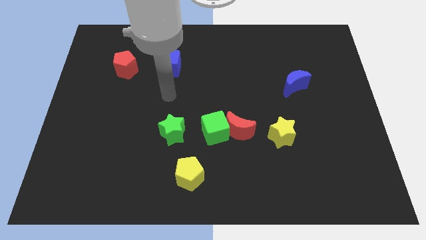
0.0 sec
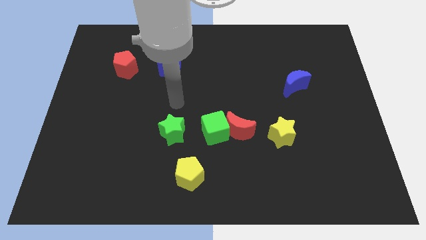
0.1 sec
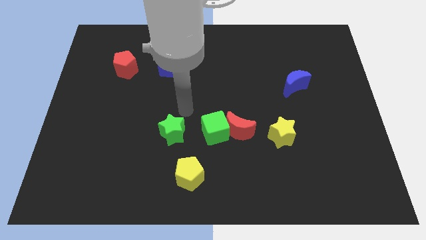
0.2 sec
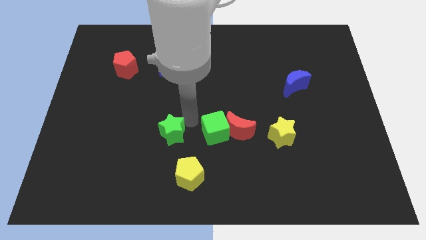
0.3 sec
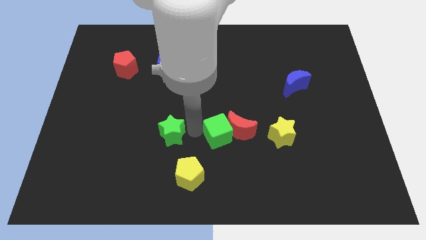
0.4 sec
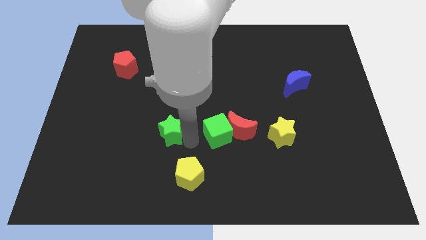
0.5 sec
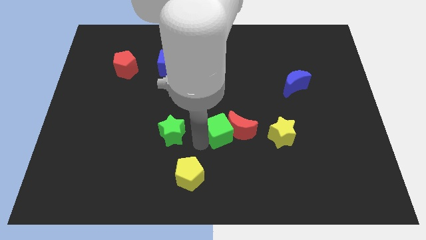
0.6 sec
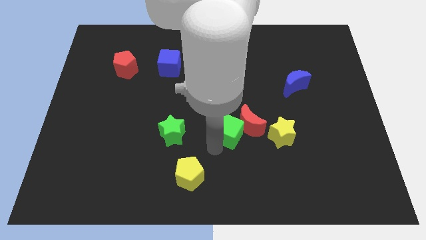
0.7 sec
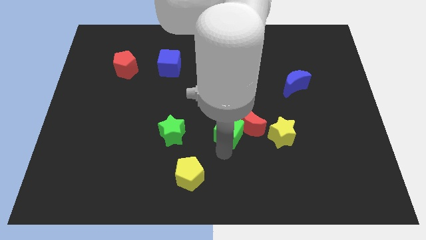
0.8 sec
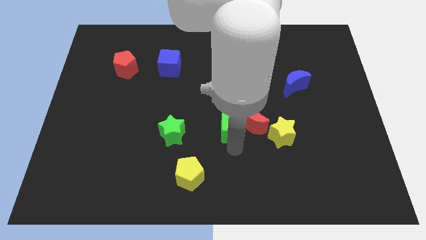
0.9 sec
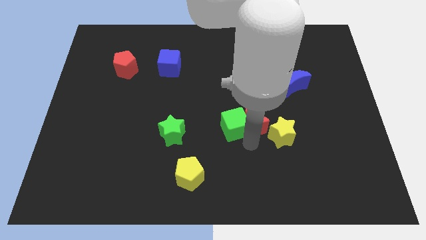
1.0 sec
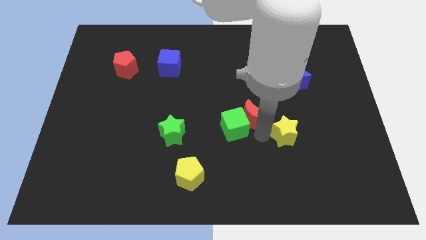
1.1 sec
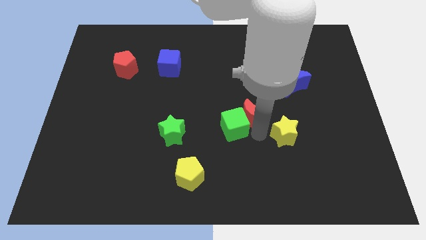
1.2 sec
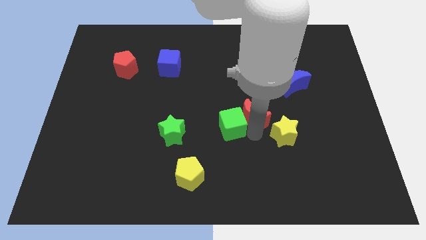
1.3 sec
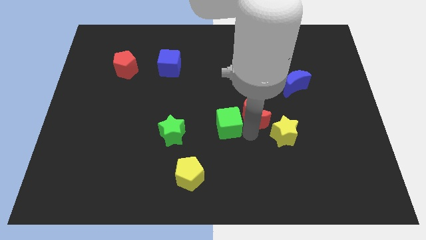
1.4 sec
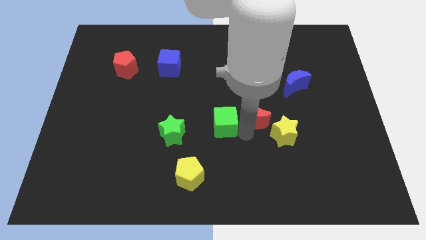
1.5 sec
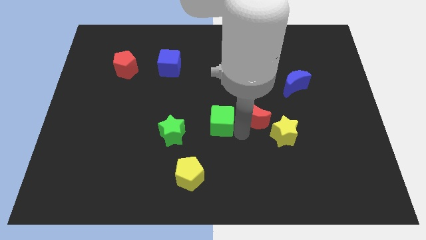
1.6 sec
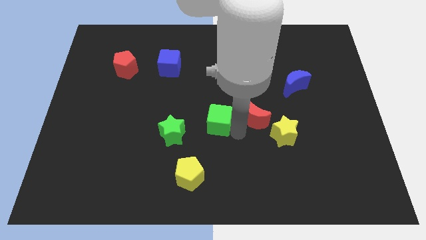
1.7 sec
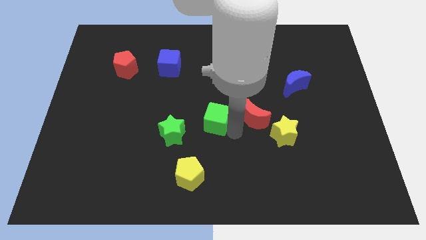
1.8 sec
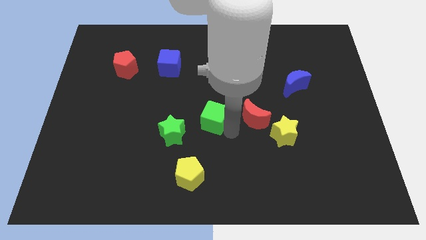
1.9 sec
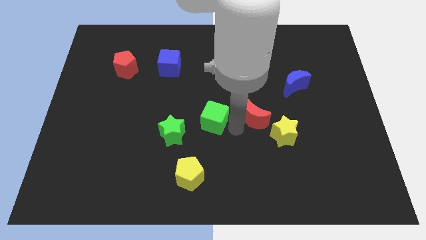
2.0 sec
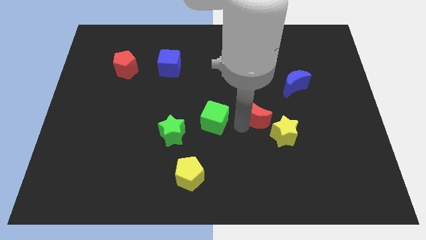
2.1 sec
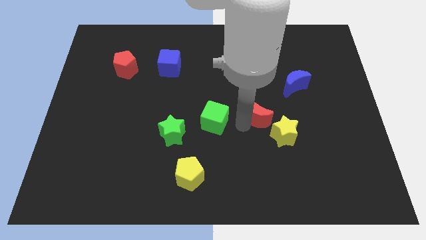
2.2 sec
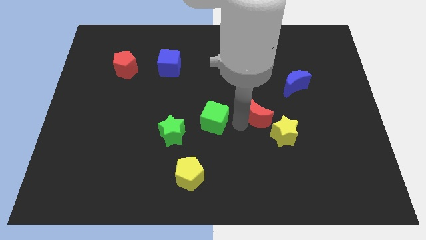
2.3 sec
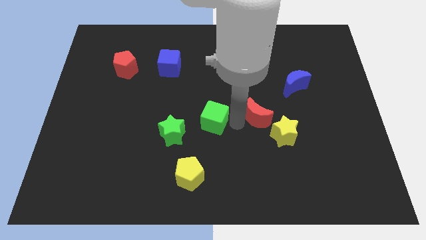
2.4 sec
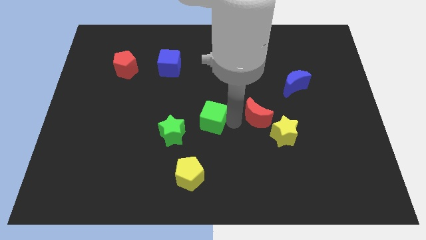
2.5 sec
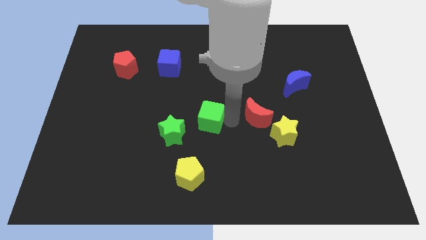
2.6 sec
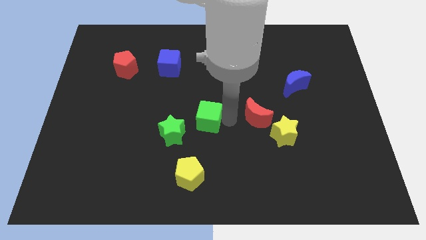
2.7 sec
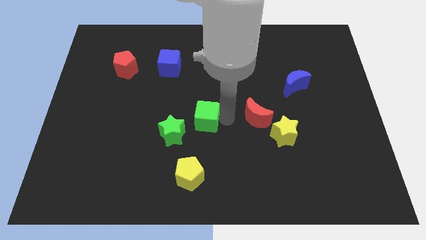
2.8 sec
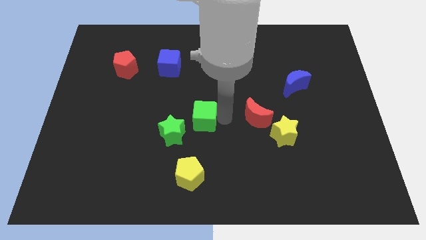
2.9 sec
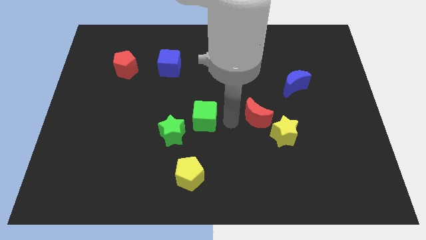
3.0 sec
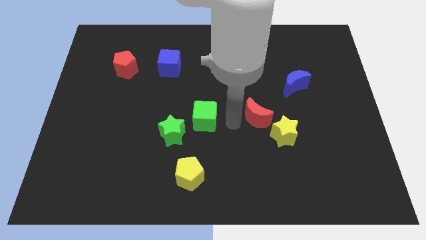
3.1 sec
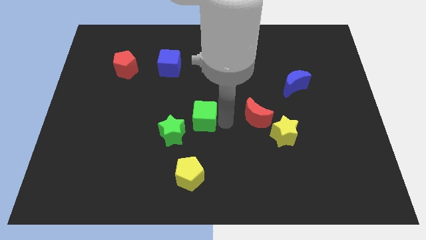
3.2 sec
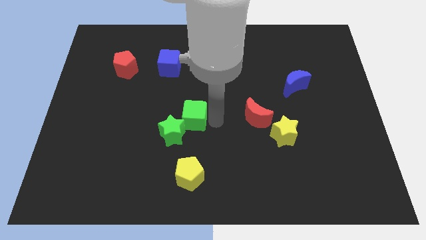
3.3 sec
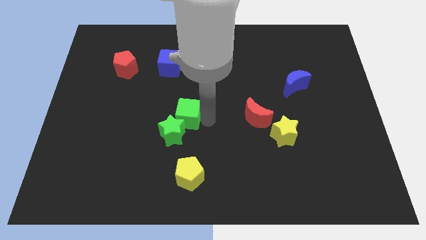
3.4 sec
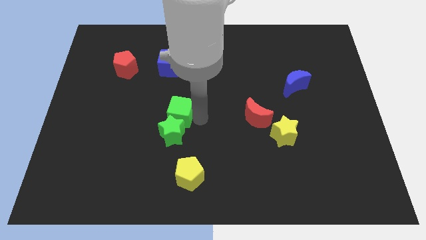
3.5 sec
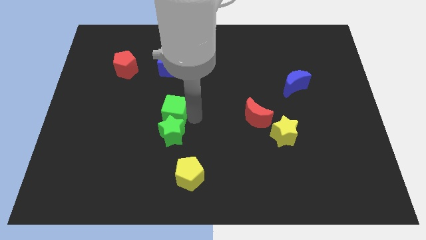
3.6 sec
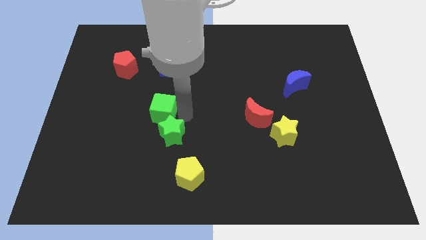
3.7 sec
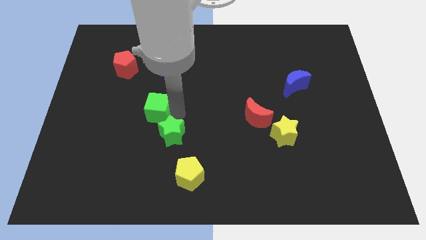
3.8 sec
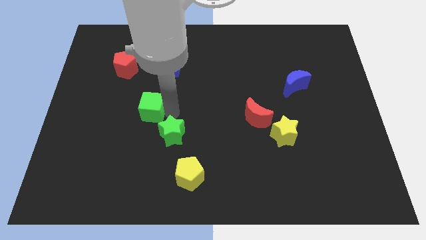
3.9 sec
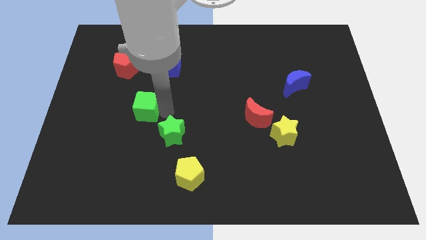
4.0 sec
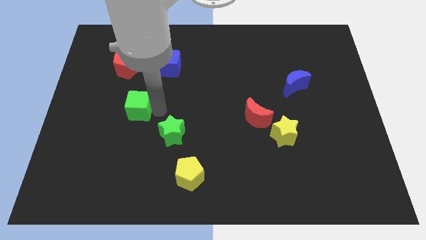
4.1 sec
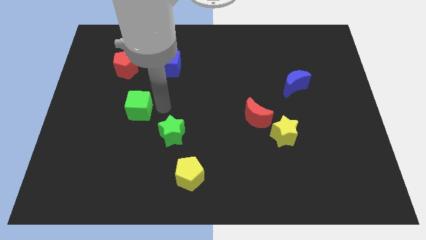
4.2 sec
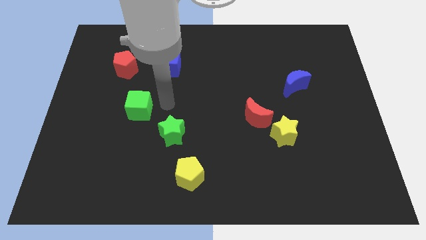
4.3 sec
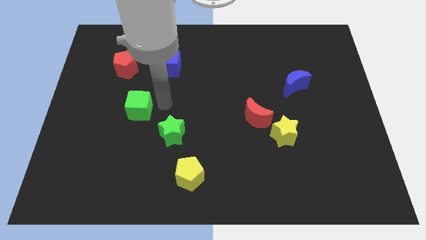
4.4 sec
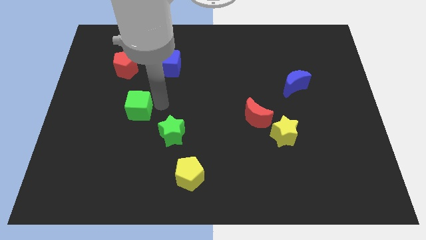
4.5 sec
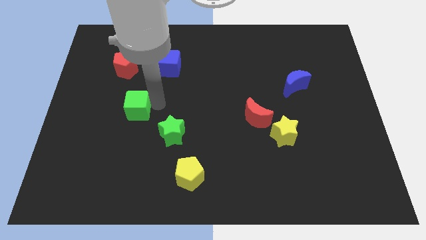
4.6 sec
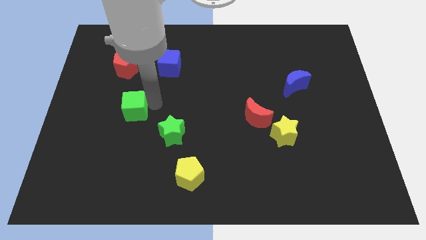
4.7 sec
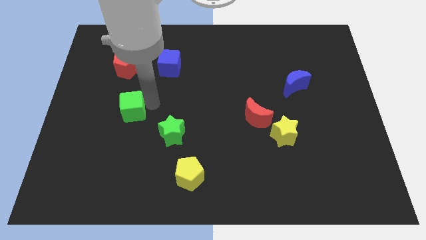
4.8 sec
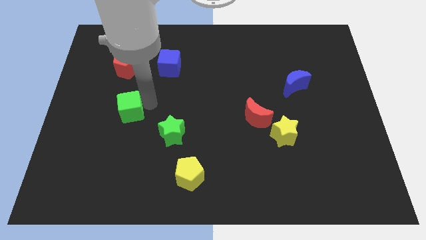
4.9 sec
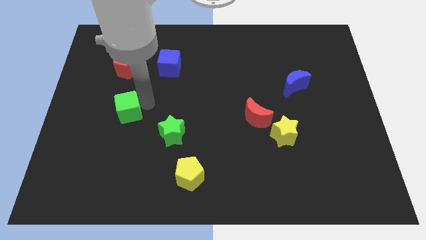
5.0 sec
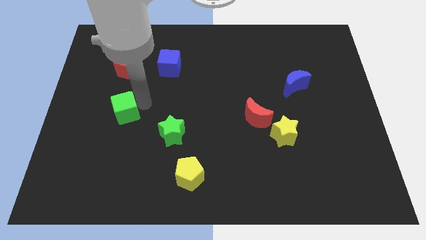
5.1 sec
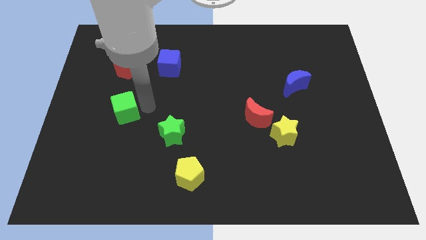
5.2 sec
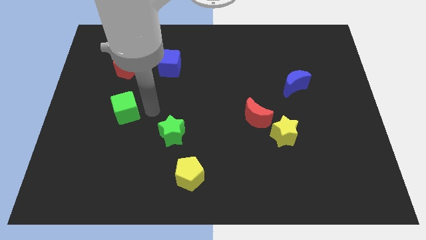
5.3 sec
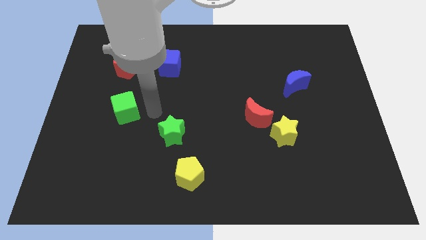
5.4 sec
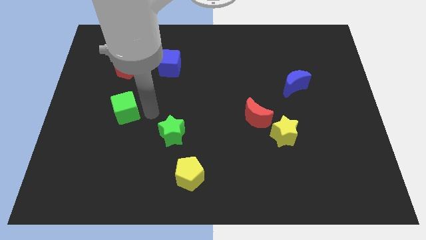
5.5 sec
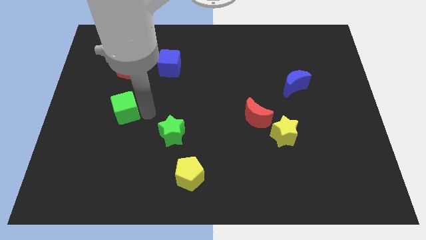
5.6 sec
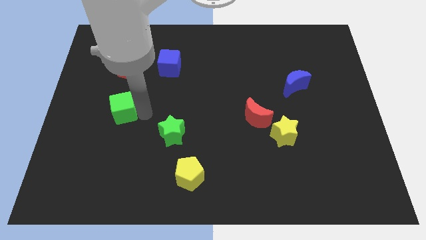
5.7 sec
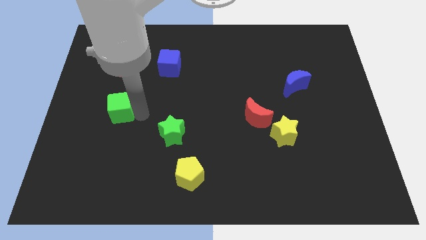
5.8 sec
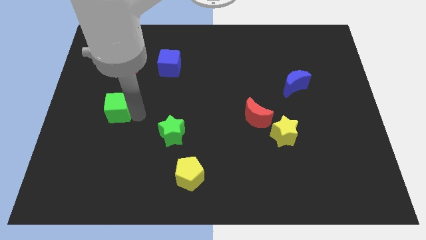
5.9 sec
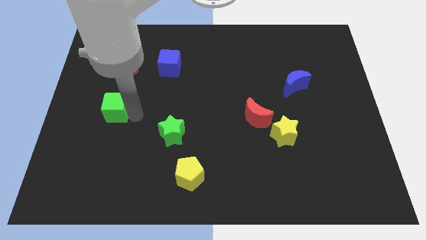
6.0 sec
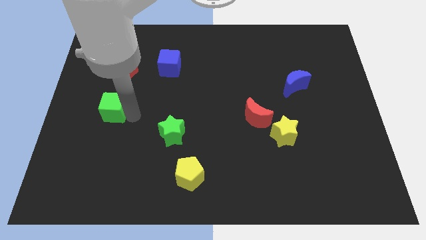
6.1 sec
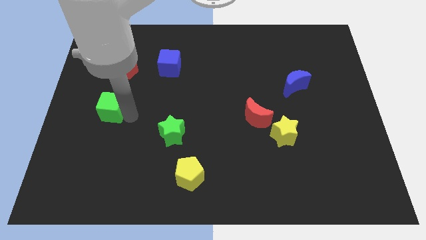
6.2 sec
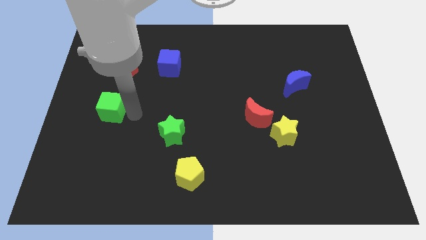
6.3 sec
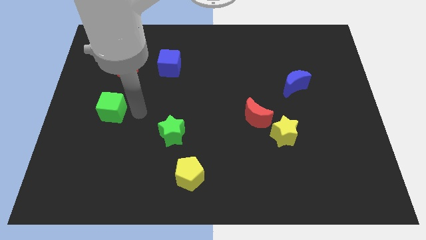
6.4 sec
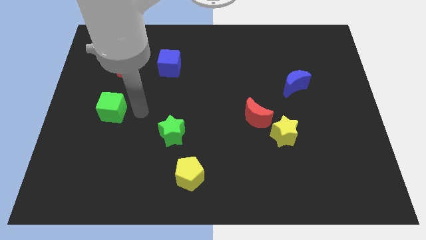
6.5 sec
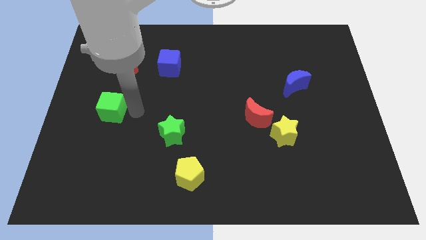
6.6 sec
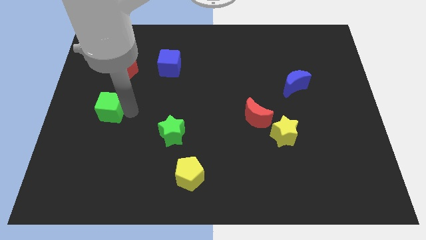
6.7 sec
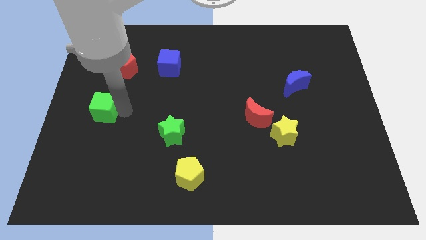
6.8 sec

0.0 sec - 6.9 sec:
put the green cube to the center left

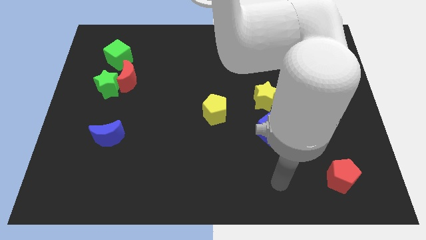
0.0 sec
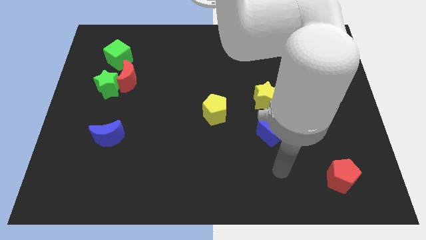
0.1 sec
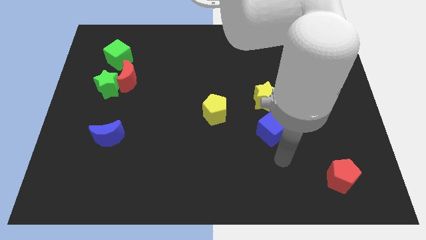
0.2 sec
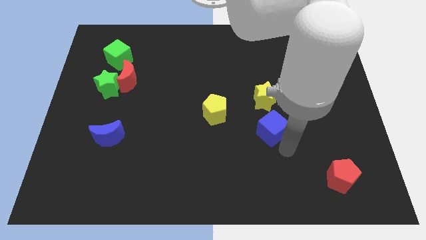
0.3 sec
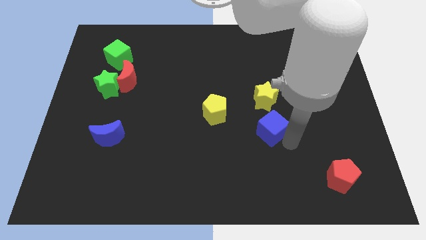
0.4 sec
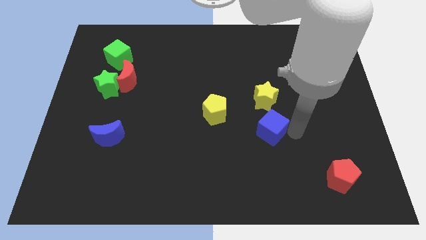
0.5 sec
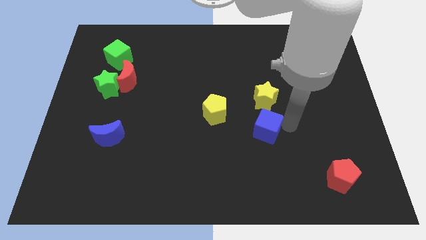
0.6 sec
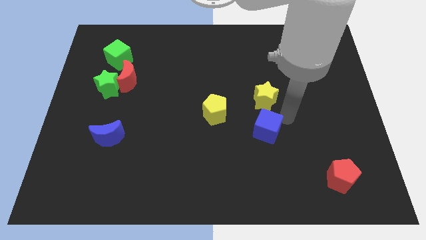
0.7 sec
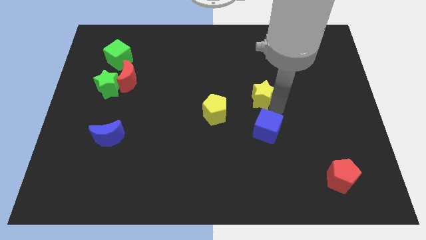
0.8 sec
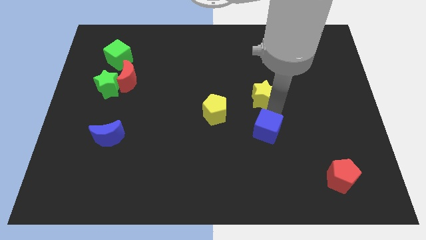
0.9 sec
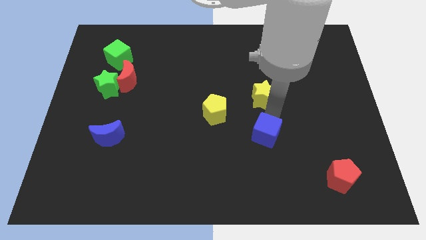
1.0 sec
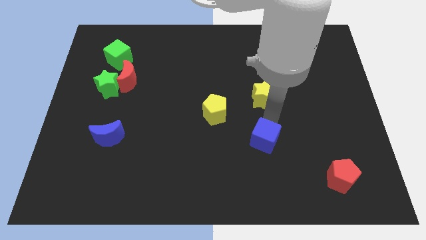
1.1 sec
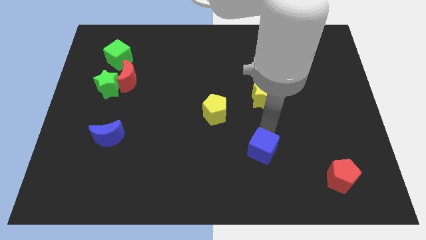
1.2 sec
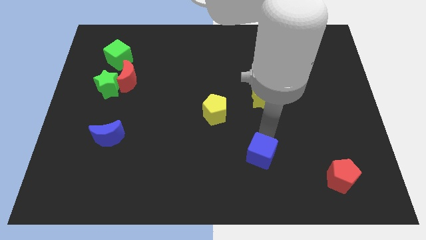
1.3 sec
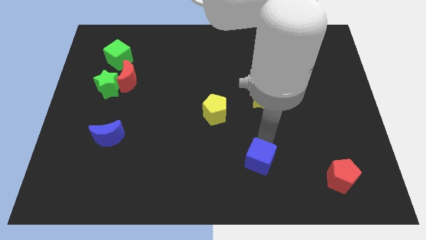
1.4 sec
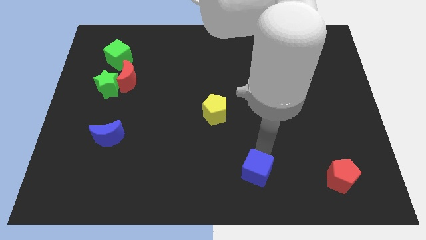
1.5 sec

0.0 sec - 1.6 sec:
slide the blue cube to the bottom
